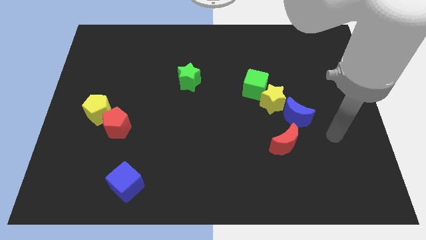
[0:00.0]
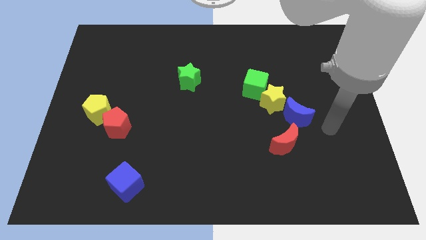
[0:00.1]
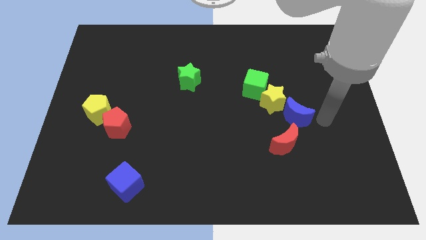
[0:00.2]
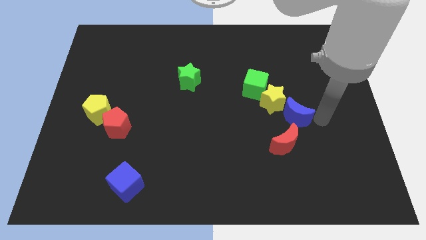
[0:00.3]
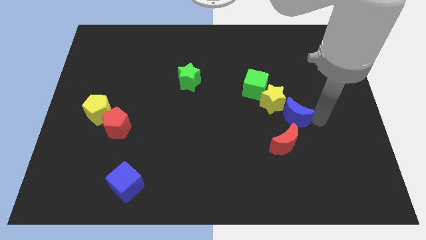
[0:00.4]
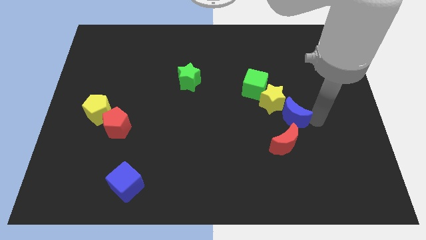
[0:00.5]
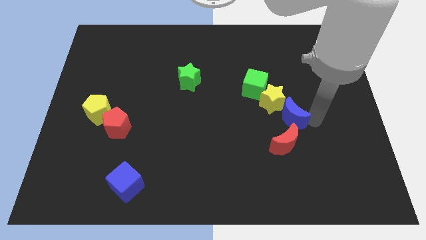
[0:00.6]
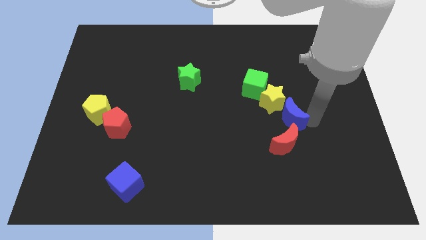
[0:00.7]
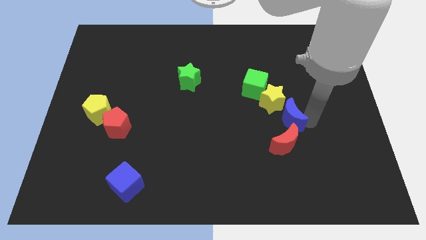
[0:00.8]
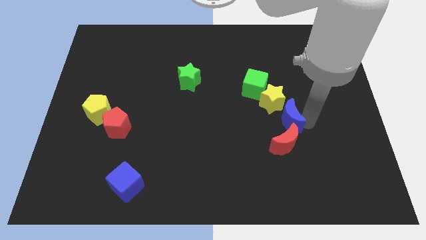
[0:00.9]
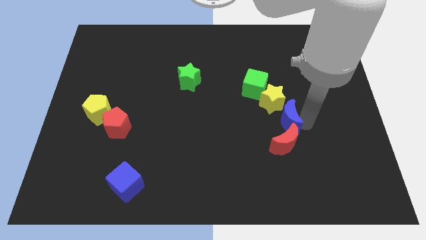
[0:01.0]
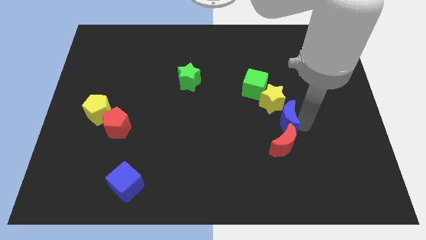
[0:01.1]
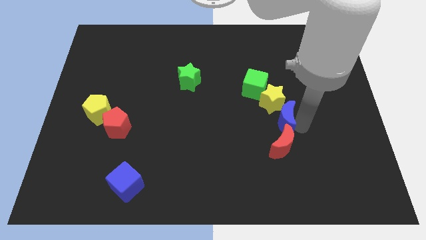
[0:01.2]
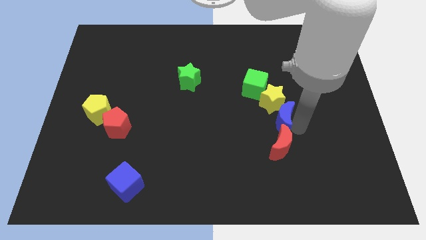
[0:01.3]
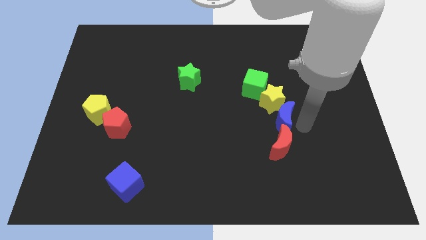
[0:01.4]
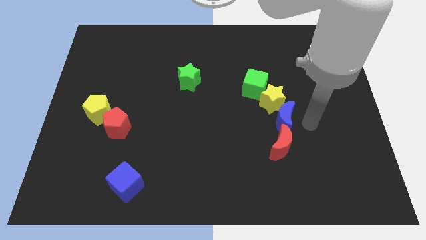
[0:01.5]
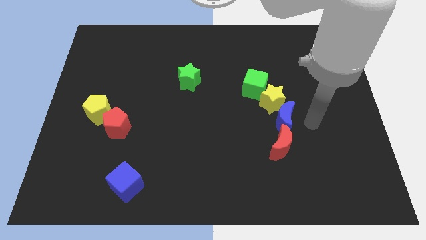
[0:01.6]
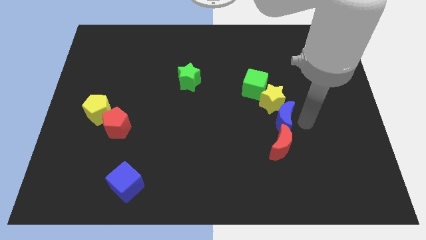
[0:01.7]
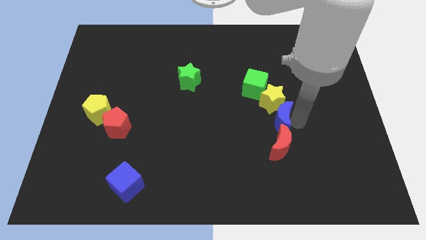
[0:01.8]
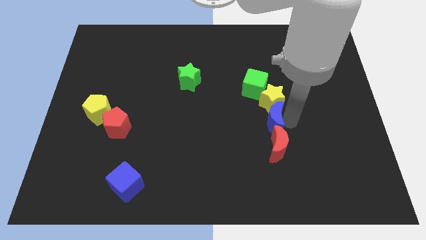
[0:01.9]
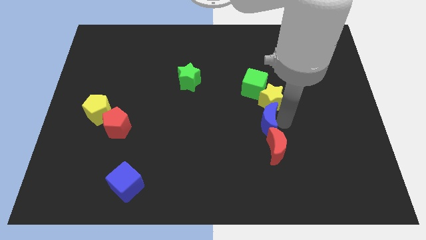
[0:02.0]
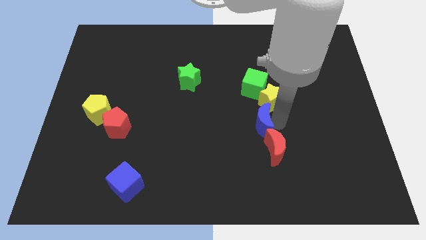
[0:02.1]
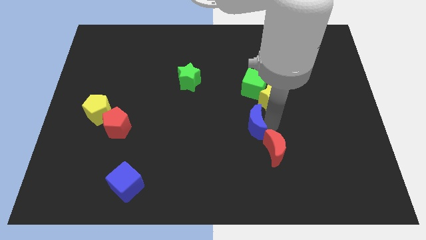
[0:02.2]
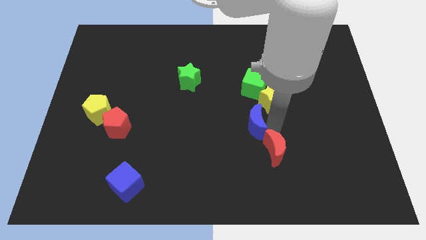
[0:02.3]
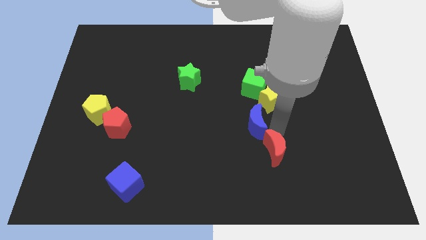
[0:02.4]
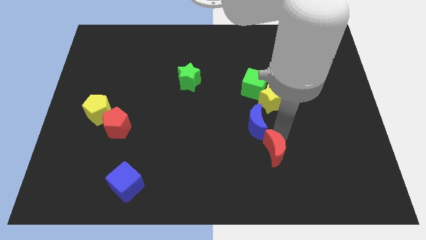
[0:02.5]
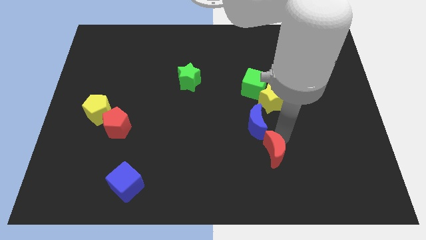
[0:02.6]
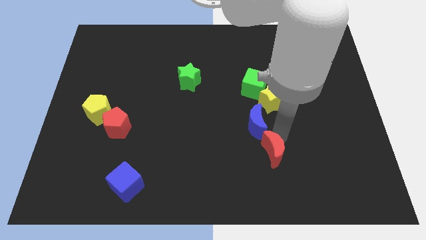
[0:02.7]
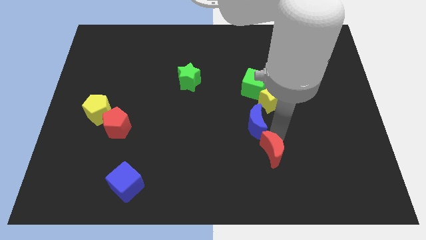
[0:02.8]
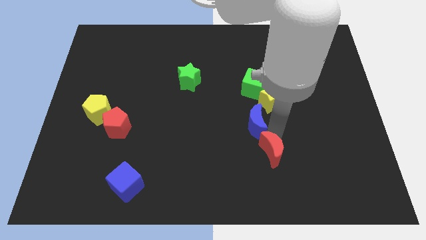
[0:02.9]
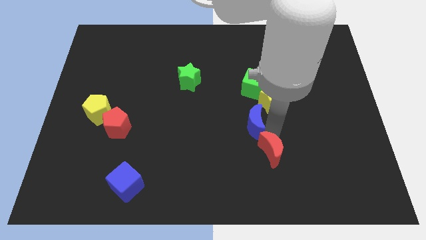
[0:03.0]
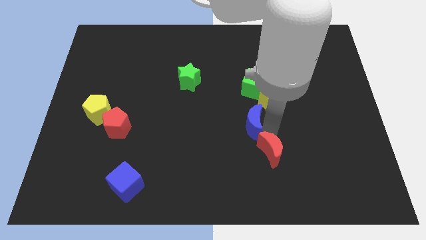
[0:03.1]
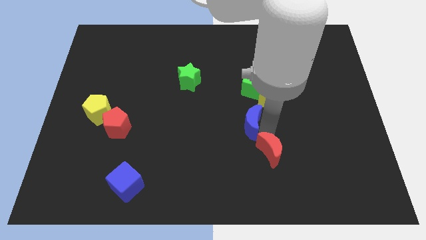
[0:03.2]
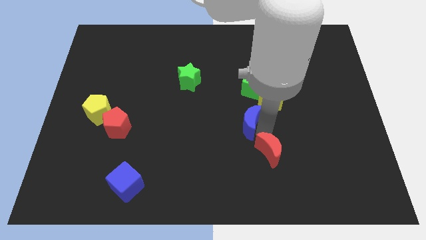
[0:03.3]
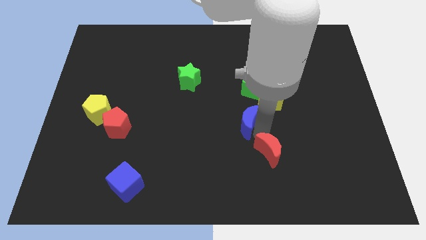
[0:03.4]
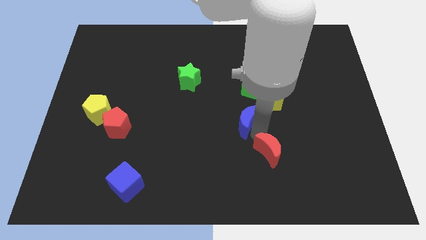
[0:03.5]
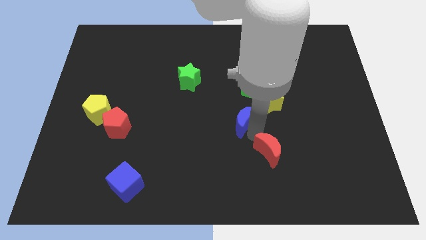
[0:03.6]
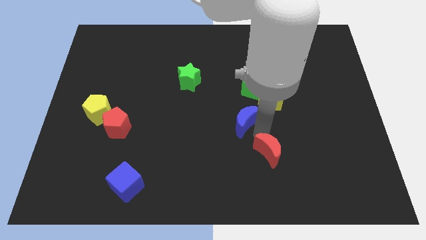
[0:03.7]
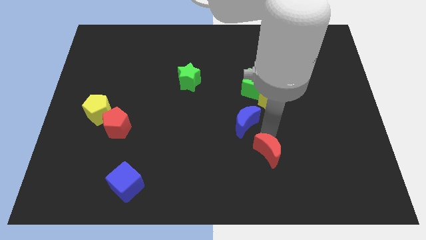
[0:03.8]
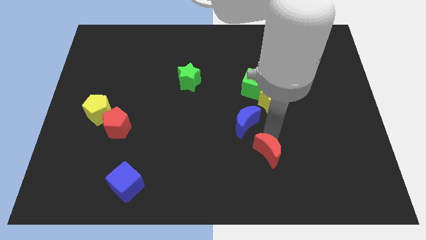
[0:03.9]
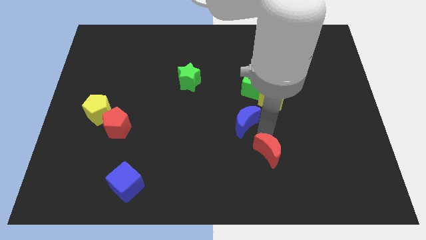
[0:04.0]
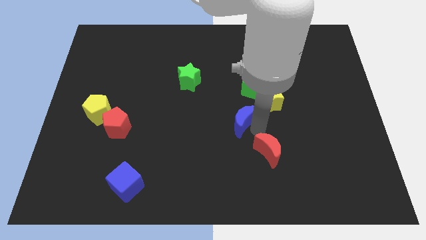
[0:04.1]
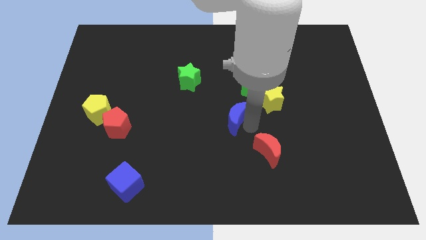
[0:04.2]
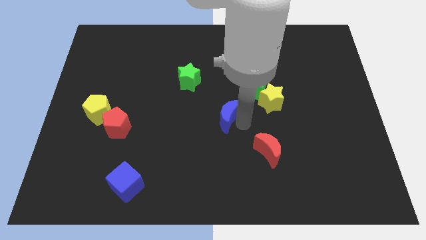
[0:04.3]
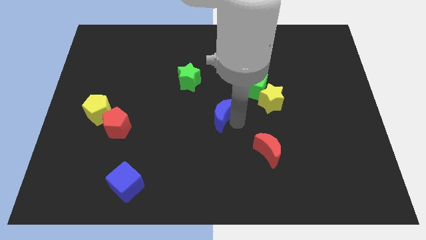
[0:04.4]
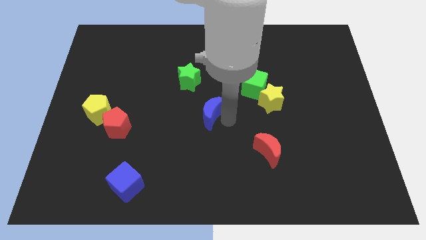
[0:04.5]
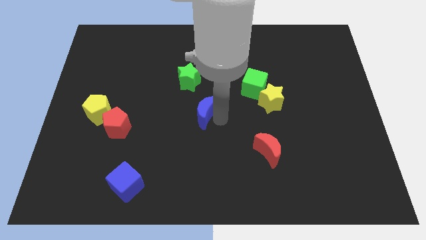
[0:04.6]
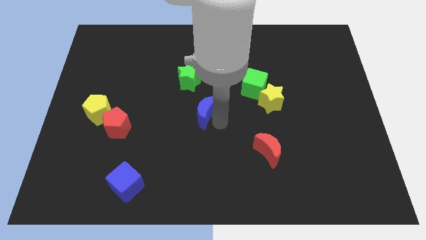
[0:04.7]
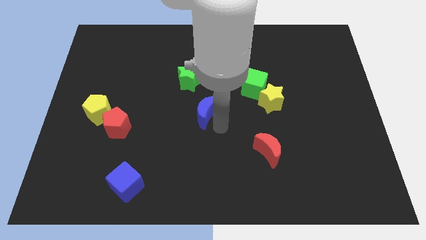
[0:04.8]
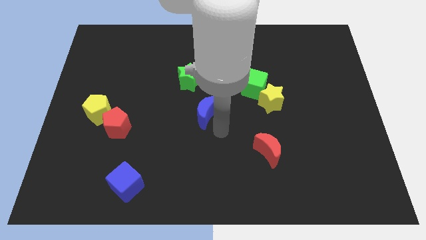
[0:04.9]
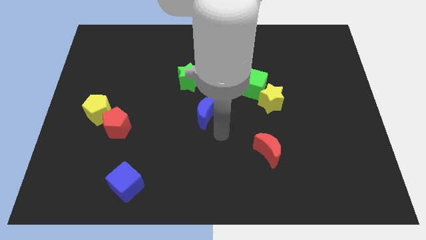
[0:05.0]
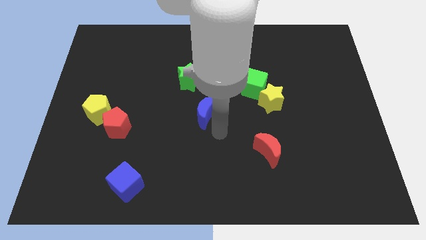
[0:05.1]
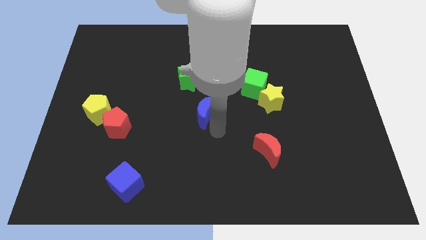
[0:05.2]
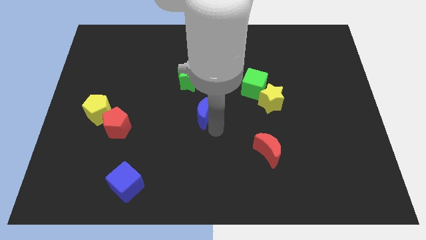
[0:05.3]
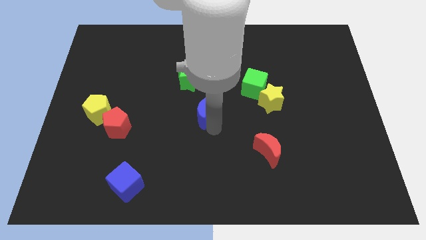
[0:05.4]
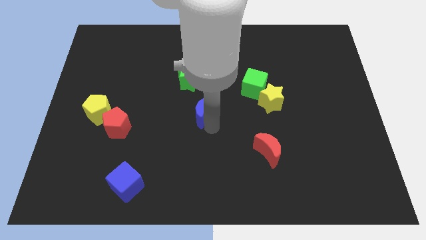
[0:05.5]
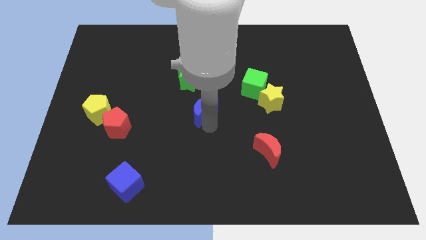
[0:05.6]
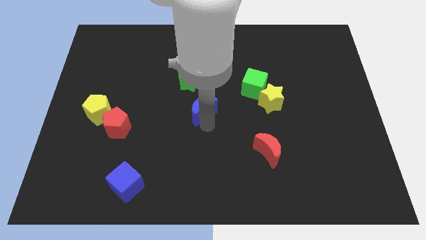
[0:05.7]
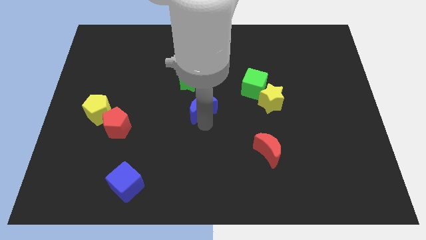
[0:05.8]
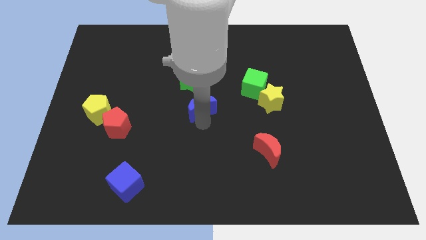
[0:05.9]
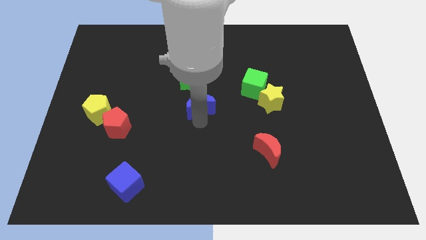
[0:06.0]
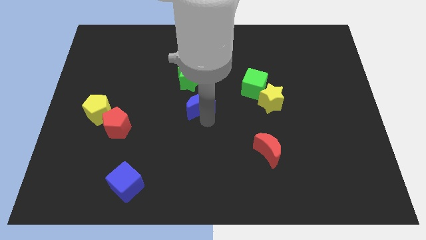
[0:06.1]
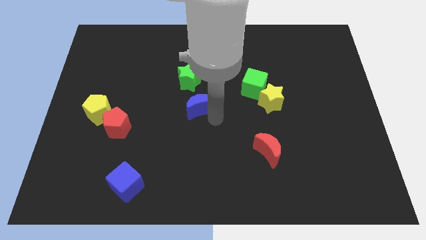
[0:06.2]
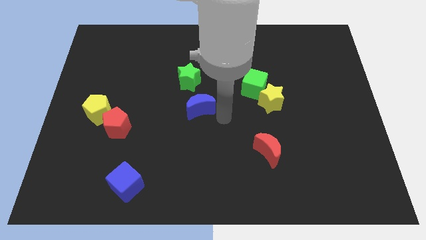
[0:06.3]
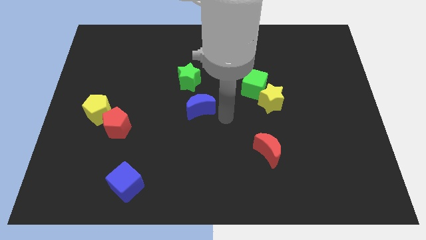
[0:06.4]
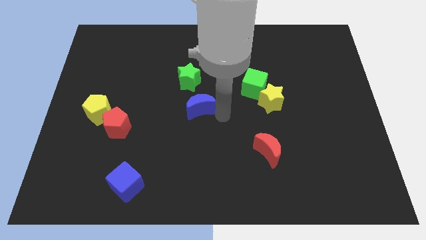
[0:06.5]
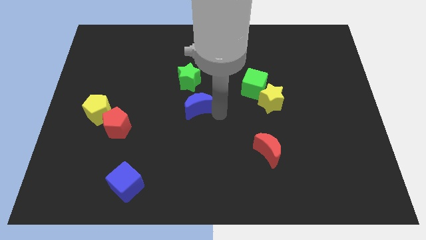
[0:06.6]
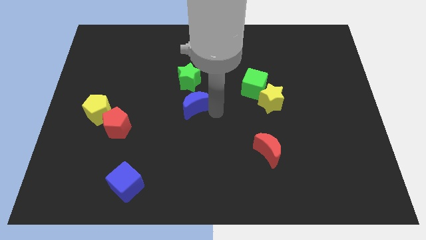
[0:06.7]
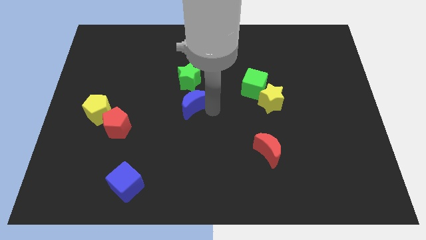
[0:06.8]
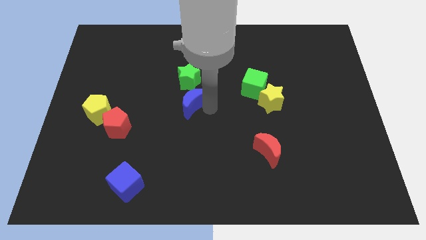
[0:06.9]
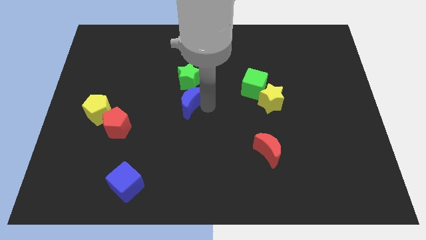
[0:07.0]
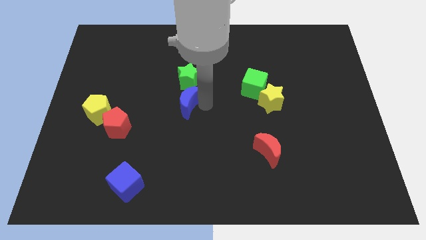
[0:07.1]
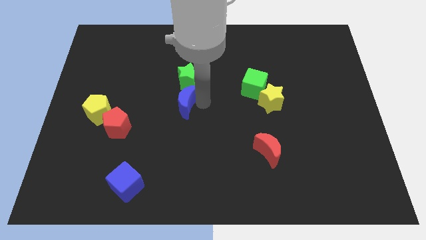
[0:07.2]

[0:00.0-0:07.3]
move the blue moon to the bottom left of the green star
